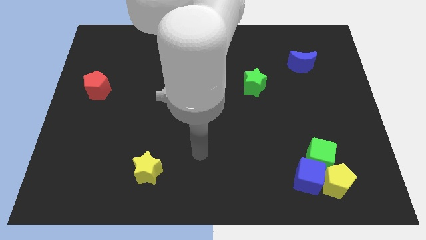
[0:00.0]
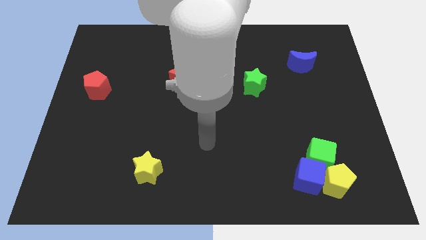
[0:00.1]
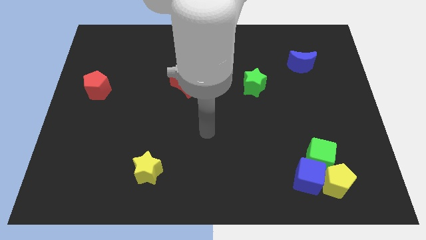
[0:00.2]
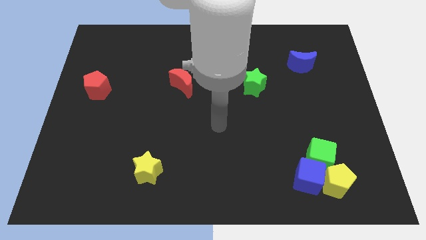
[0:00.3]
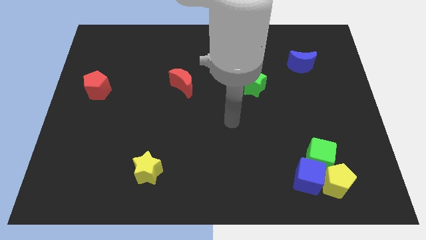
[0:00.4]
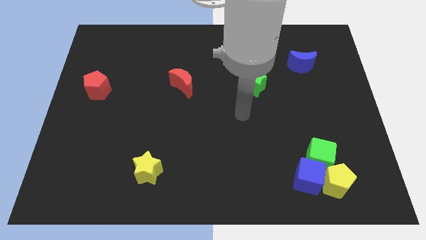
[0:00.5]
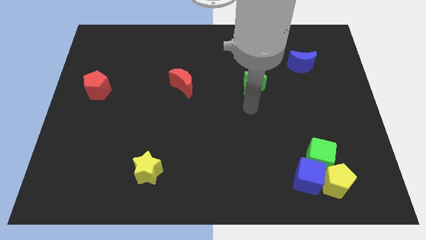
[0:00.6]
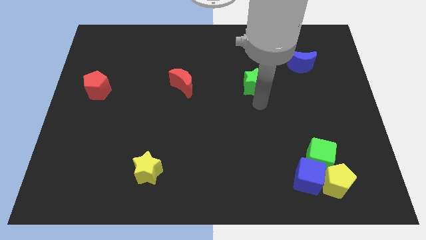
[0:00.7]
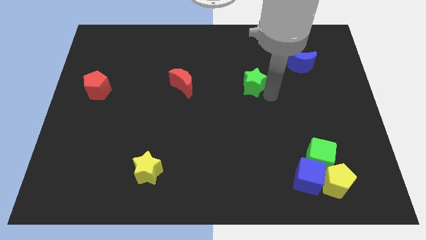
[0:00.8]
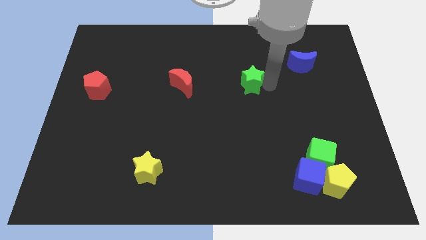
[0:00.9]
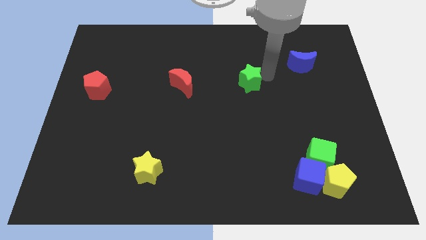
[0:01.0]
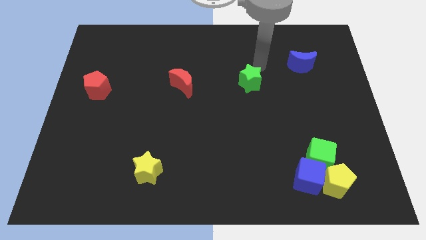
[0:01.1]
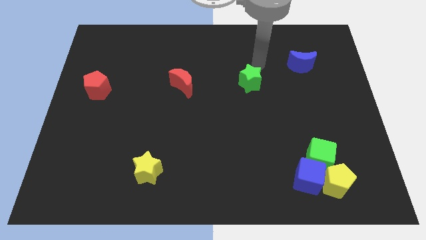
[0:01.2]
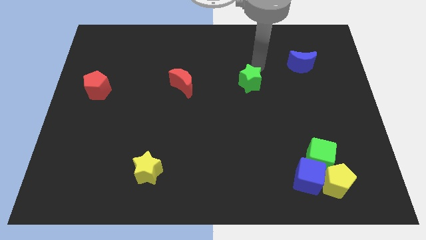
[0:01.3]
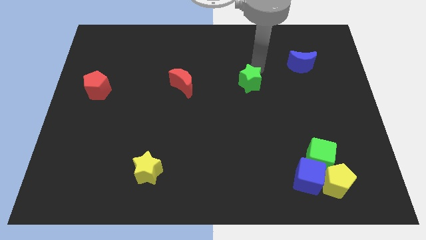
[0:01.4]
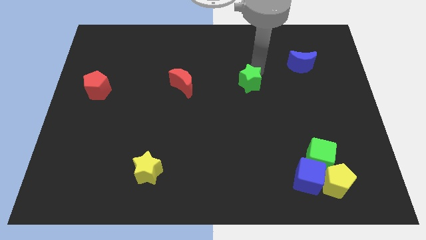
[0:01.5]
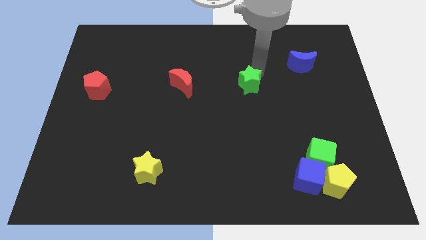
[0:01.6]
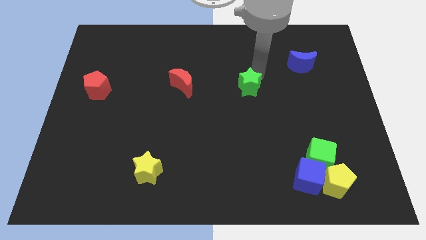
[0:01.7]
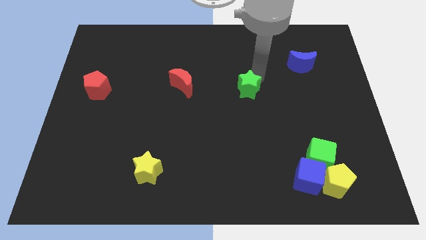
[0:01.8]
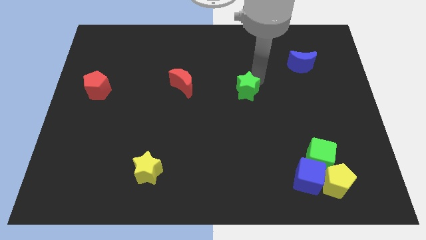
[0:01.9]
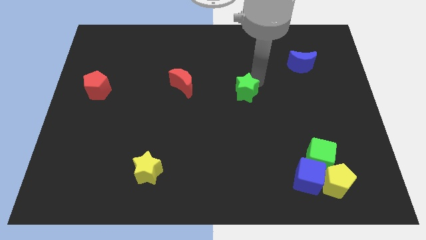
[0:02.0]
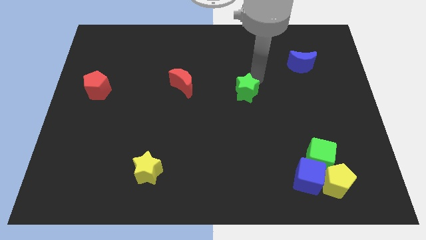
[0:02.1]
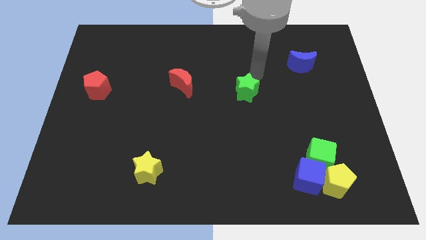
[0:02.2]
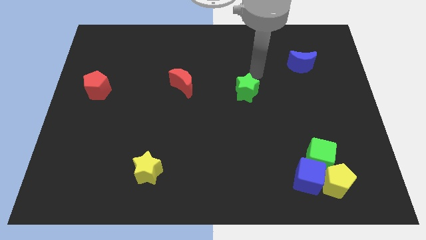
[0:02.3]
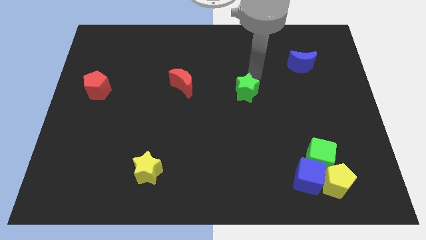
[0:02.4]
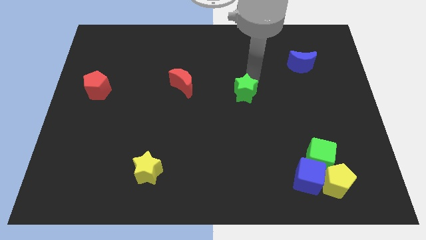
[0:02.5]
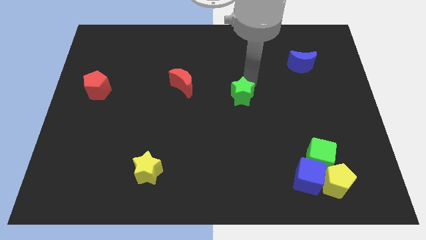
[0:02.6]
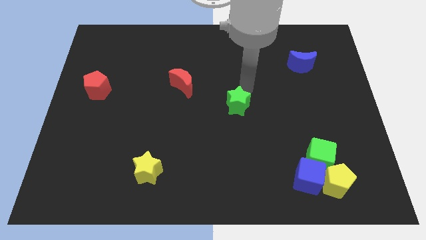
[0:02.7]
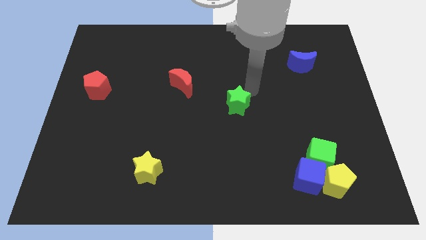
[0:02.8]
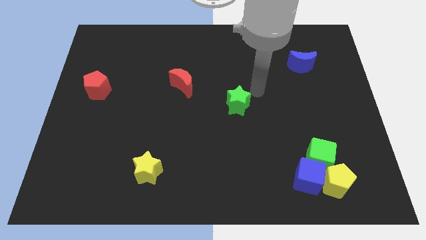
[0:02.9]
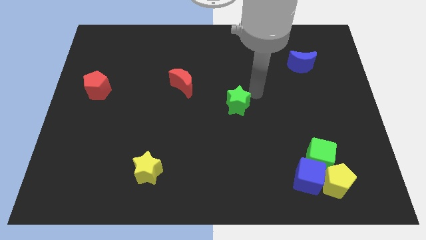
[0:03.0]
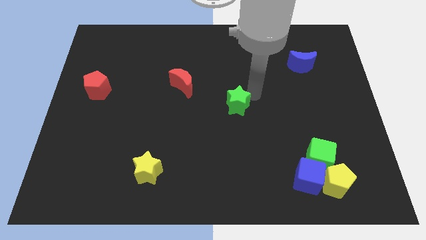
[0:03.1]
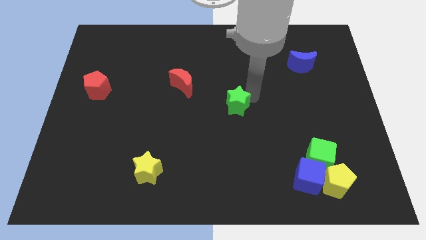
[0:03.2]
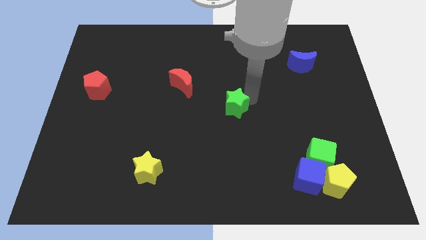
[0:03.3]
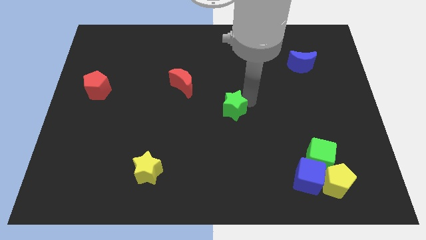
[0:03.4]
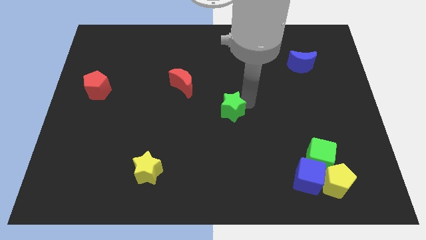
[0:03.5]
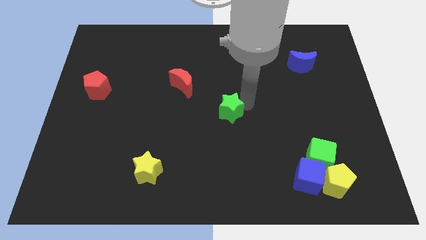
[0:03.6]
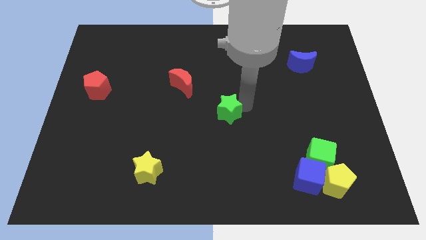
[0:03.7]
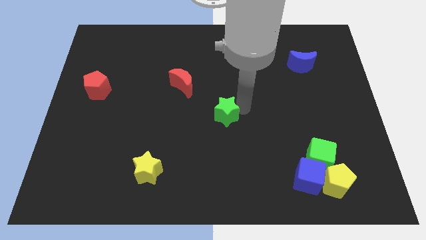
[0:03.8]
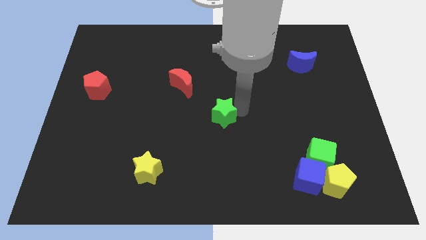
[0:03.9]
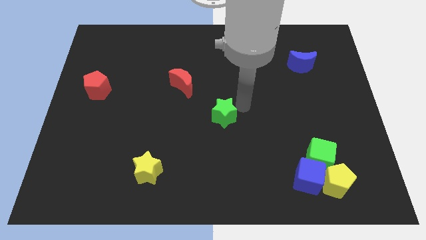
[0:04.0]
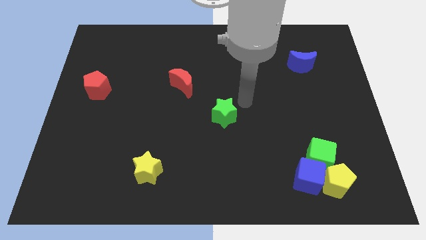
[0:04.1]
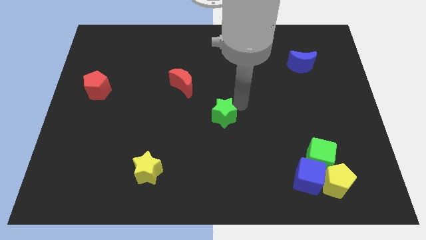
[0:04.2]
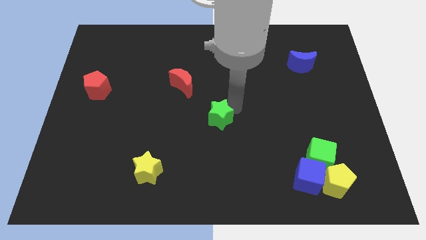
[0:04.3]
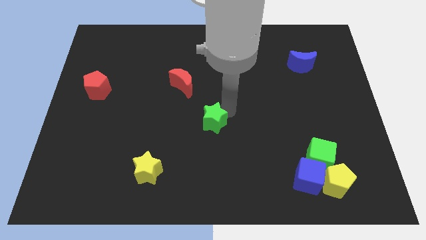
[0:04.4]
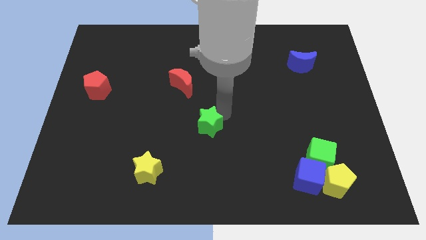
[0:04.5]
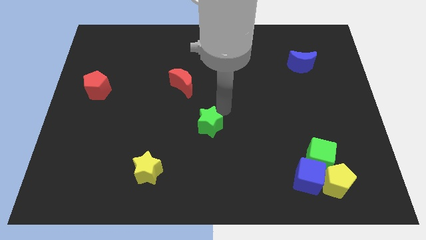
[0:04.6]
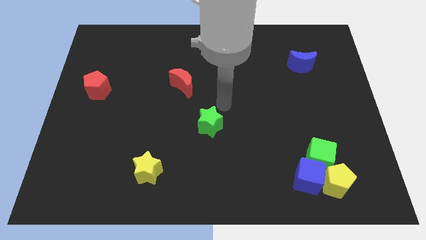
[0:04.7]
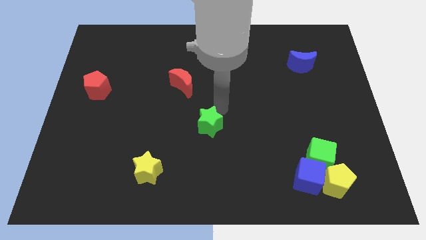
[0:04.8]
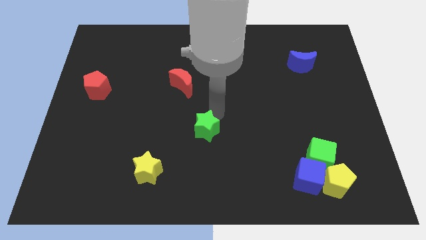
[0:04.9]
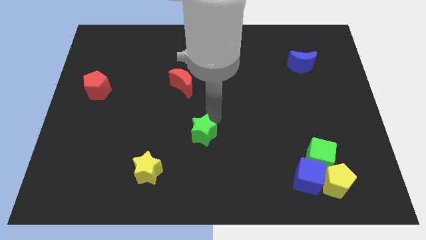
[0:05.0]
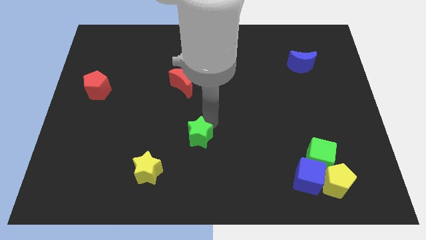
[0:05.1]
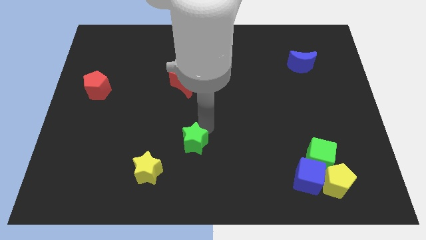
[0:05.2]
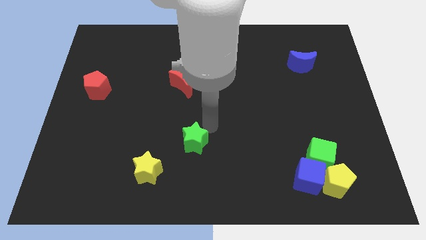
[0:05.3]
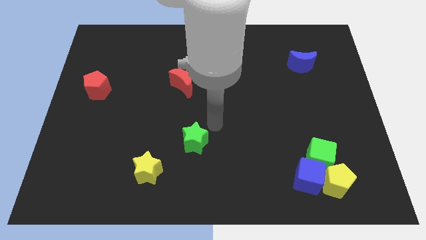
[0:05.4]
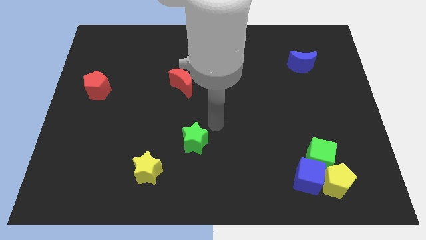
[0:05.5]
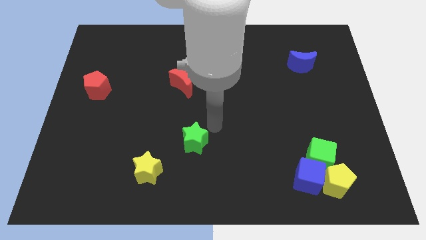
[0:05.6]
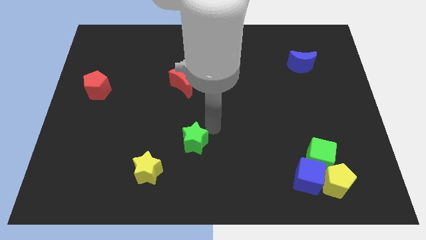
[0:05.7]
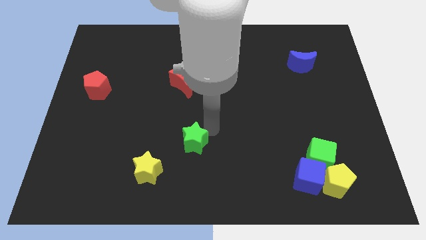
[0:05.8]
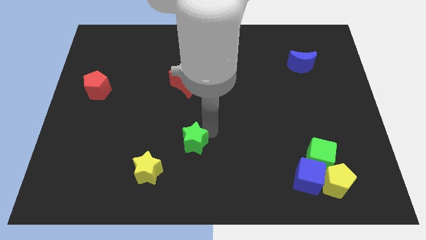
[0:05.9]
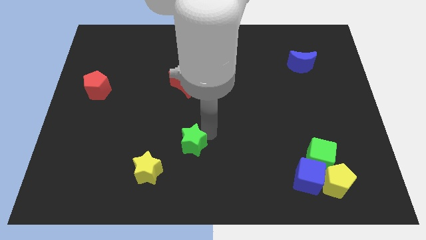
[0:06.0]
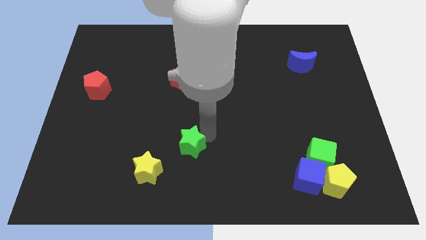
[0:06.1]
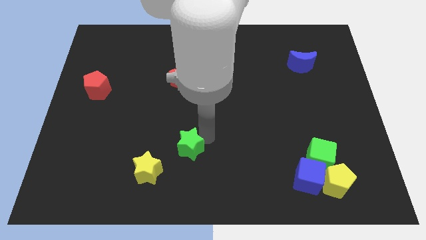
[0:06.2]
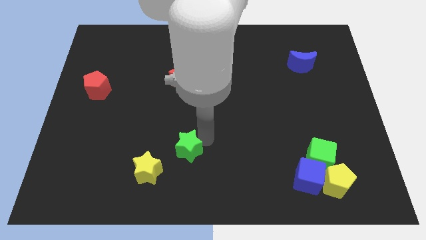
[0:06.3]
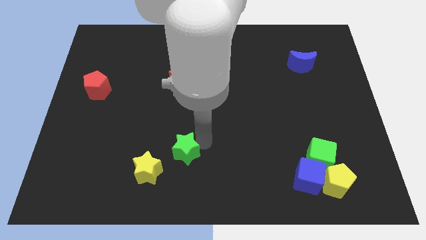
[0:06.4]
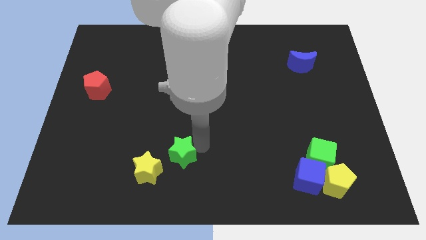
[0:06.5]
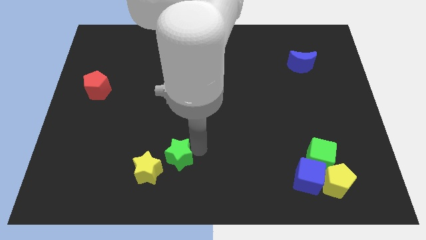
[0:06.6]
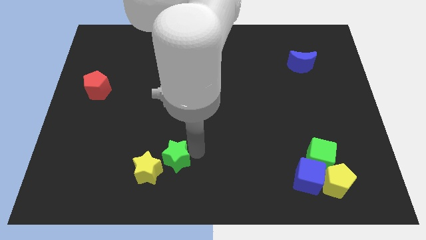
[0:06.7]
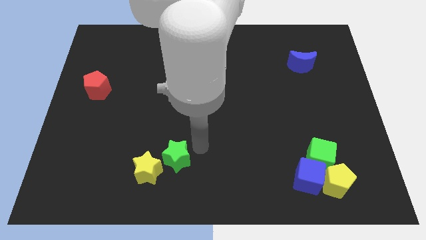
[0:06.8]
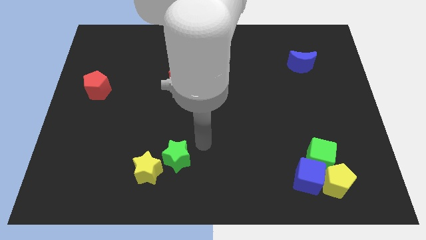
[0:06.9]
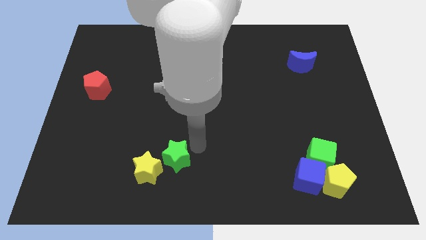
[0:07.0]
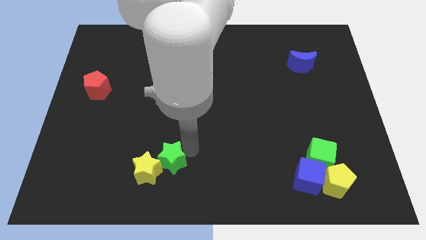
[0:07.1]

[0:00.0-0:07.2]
slide the green star close to the yellow star

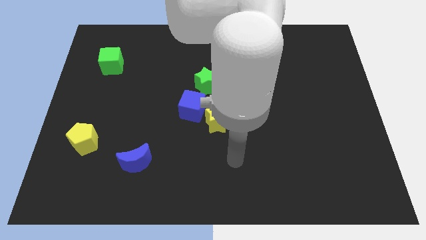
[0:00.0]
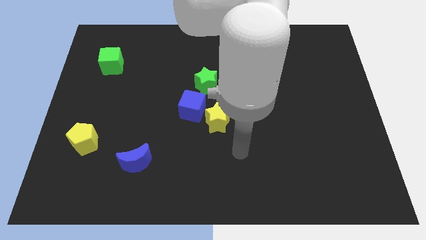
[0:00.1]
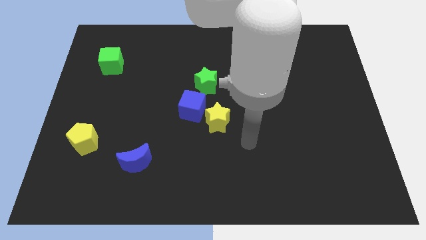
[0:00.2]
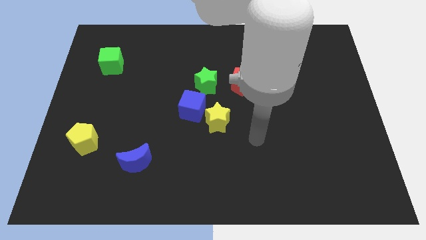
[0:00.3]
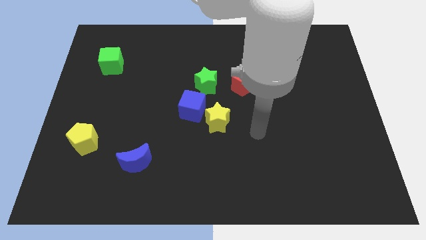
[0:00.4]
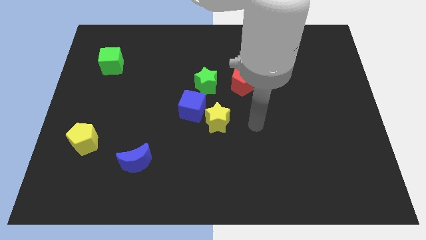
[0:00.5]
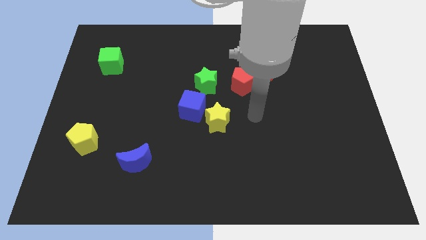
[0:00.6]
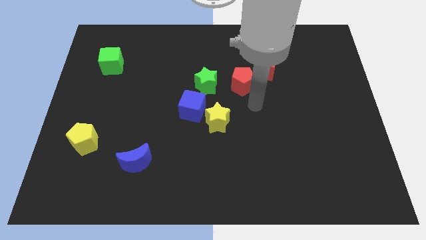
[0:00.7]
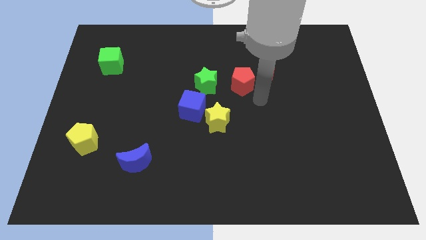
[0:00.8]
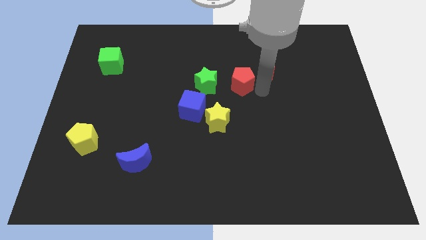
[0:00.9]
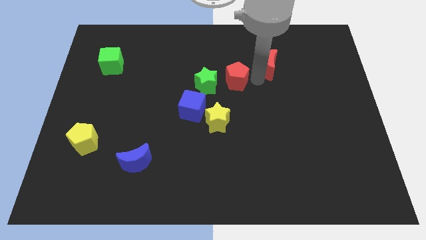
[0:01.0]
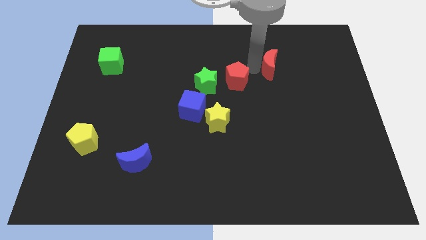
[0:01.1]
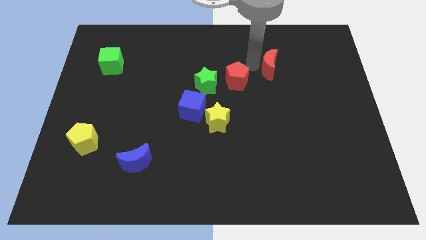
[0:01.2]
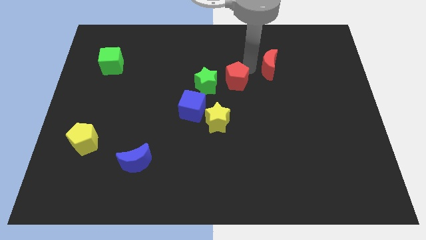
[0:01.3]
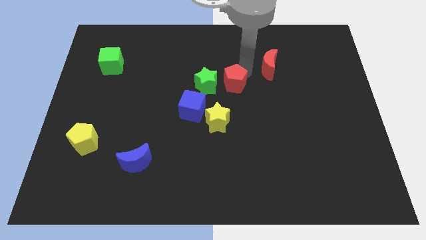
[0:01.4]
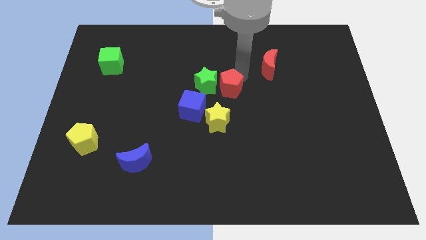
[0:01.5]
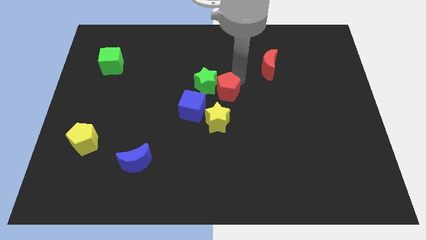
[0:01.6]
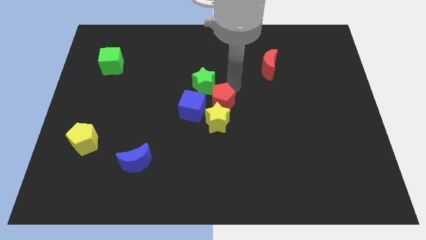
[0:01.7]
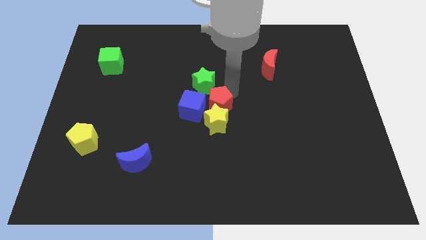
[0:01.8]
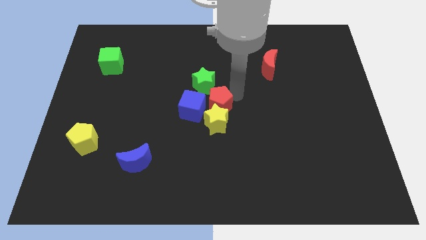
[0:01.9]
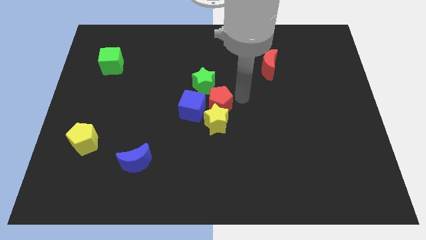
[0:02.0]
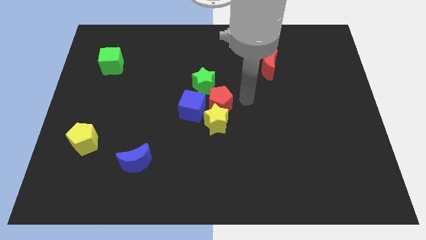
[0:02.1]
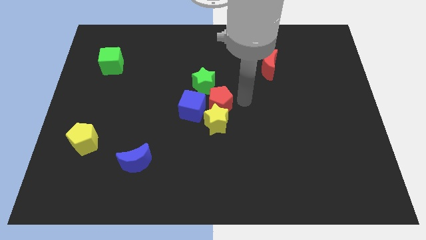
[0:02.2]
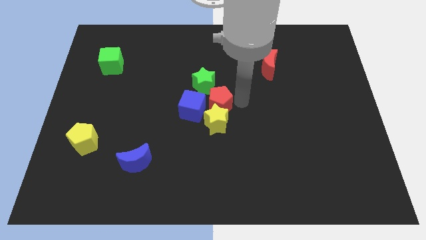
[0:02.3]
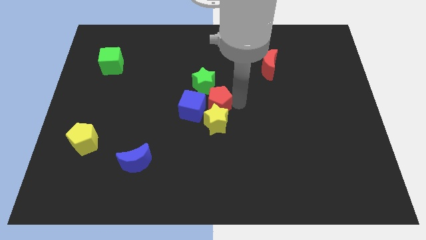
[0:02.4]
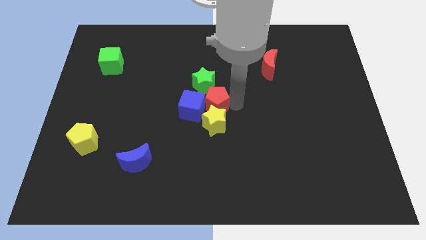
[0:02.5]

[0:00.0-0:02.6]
slide the red pentagon towards the blue cube
